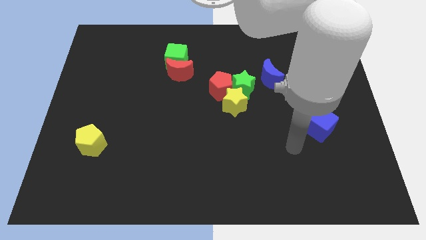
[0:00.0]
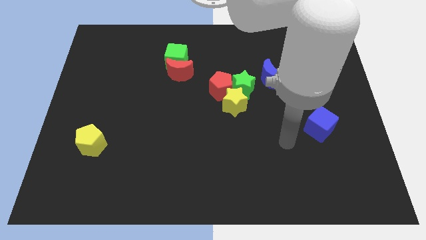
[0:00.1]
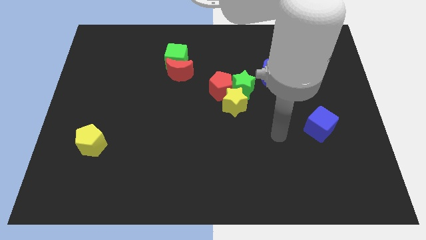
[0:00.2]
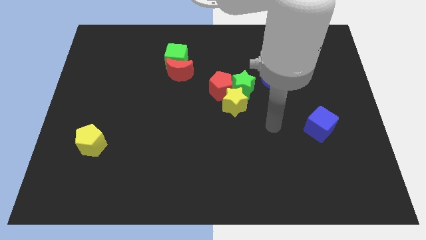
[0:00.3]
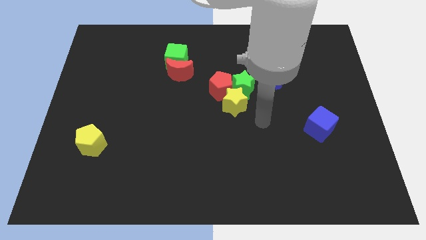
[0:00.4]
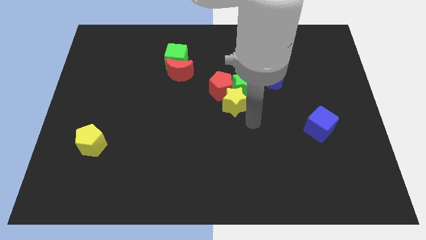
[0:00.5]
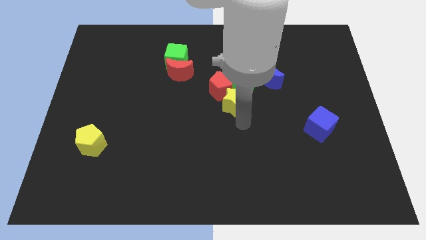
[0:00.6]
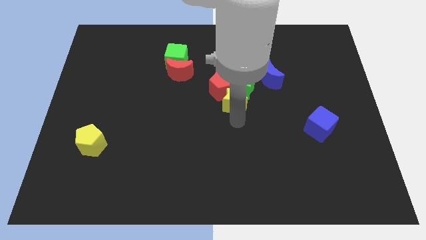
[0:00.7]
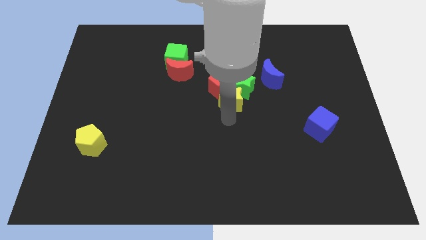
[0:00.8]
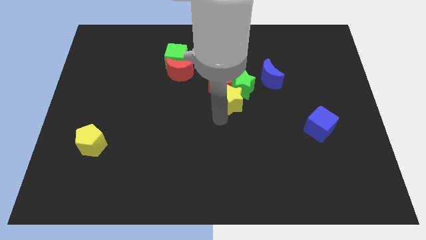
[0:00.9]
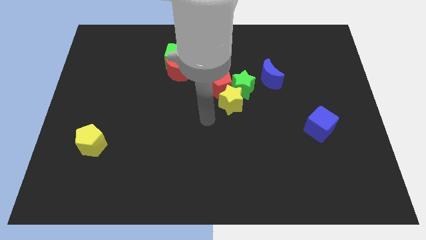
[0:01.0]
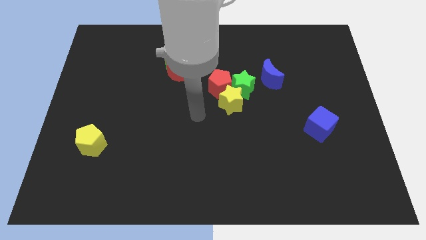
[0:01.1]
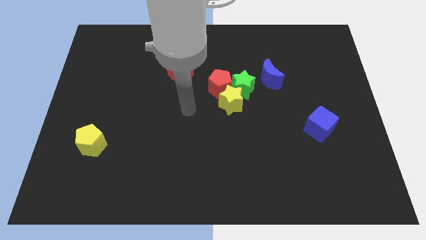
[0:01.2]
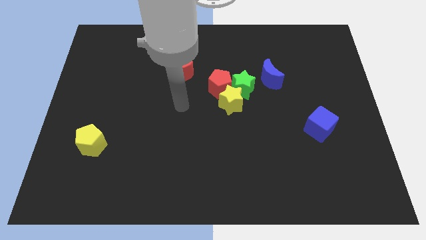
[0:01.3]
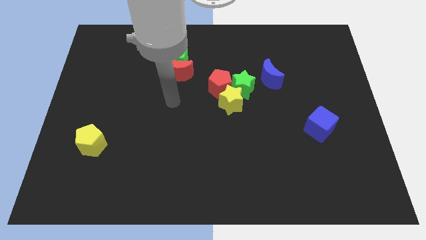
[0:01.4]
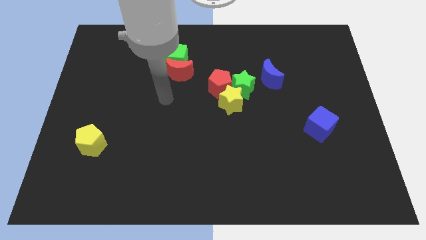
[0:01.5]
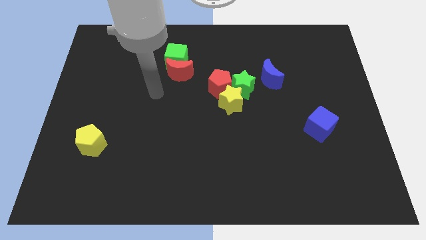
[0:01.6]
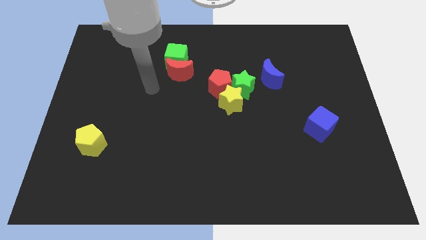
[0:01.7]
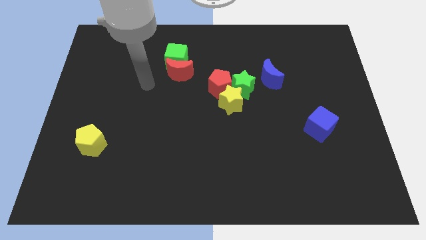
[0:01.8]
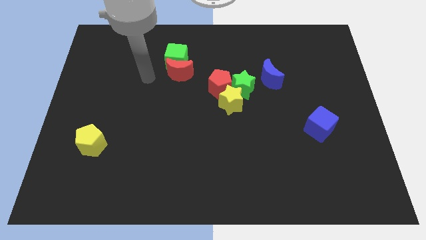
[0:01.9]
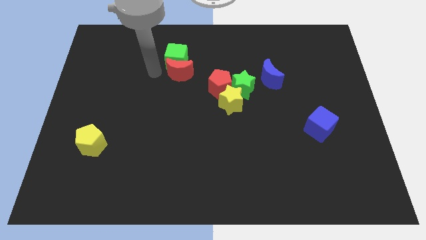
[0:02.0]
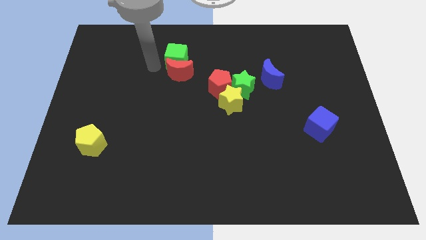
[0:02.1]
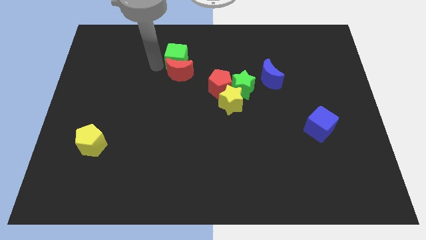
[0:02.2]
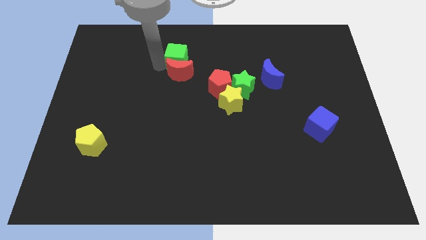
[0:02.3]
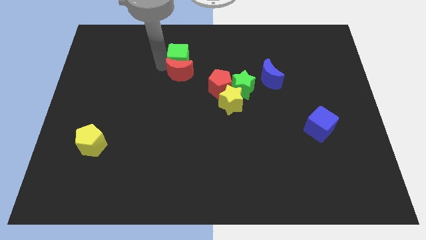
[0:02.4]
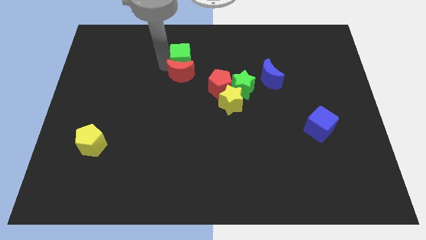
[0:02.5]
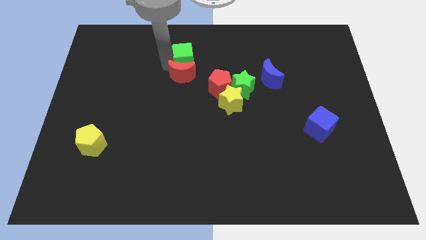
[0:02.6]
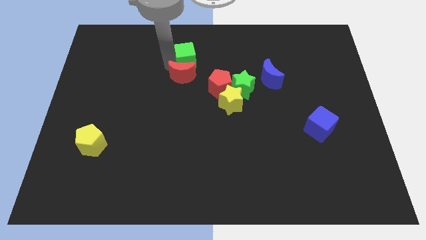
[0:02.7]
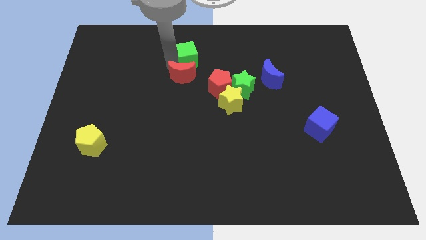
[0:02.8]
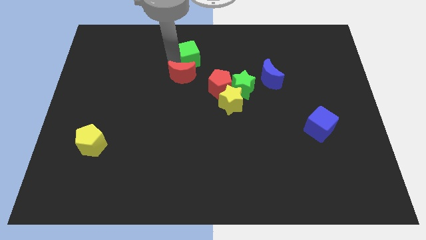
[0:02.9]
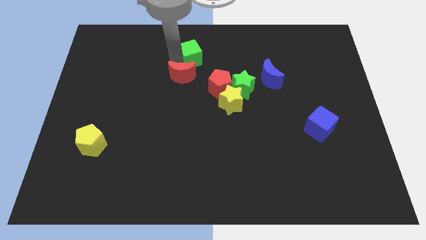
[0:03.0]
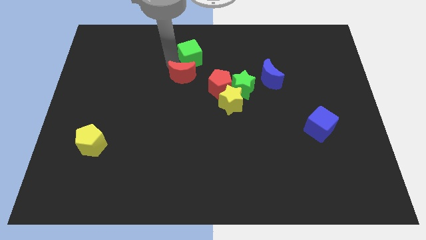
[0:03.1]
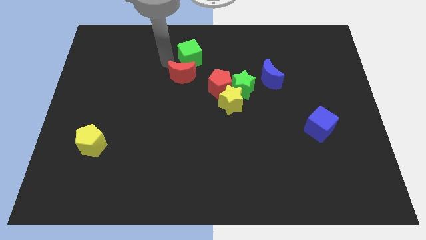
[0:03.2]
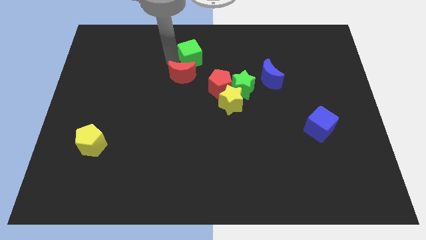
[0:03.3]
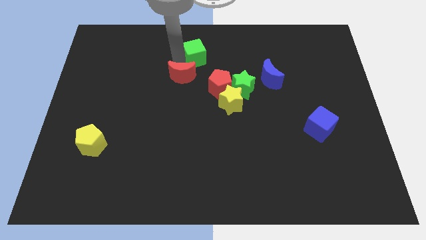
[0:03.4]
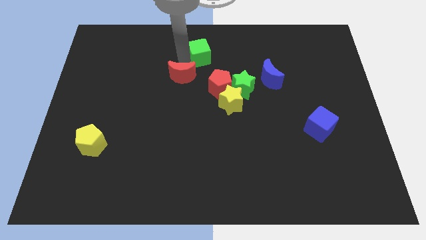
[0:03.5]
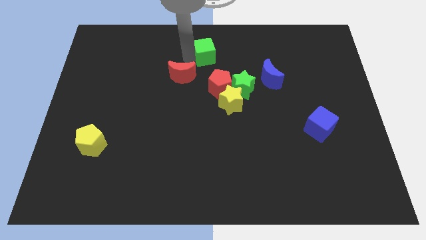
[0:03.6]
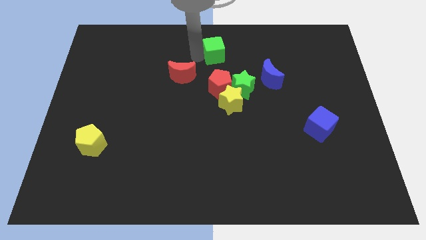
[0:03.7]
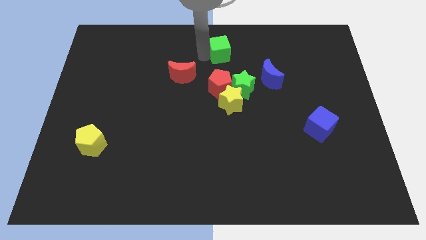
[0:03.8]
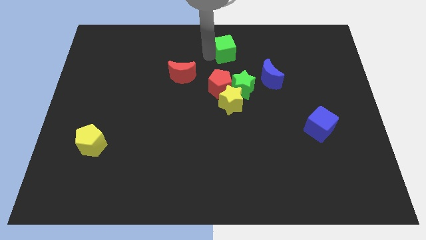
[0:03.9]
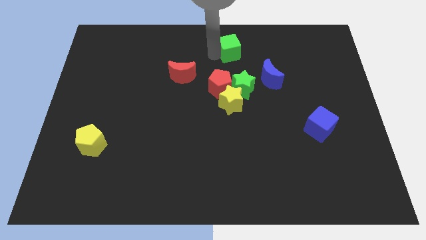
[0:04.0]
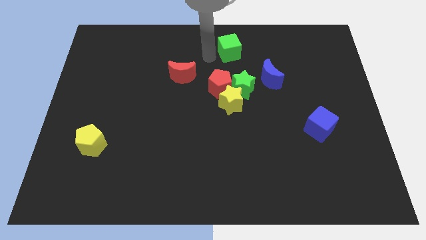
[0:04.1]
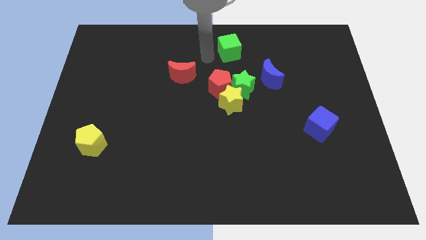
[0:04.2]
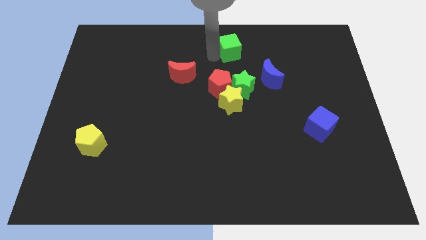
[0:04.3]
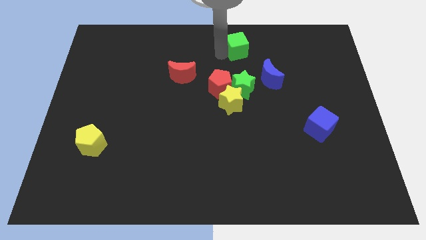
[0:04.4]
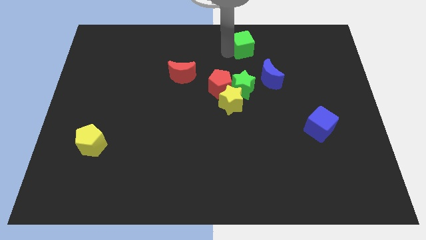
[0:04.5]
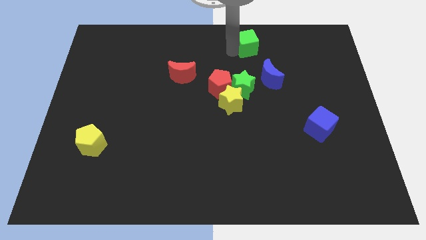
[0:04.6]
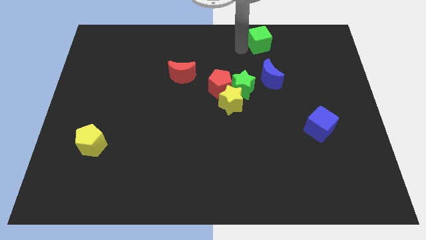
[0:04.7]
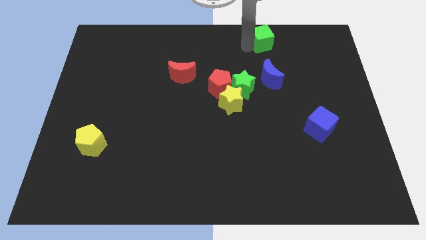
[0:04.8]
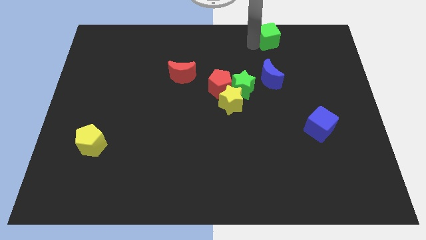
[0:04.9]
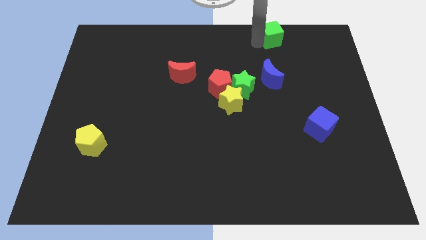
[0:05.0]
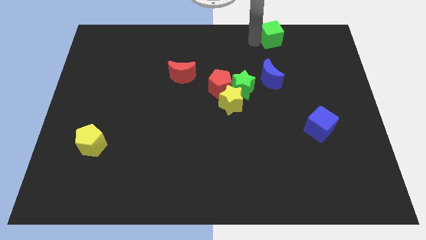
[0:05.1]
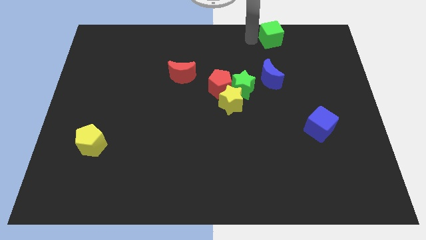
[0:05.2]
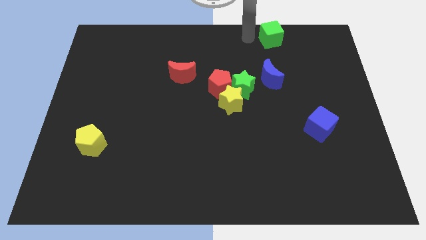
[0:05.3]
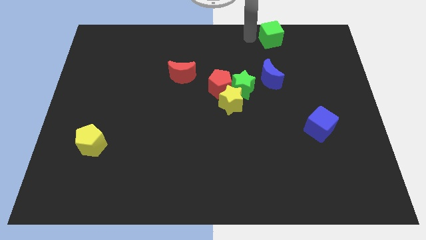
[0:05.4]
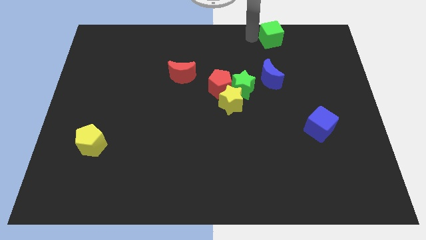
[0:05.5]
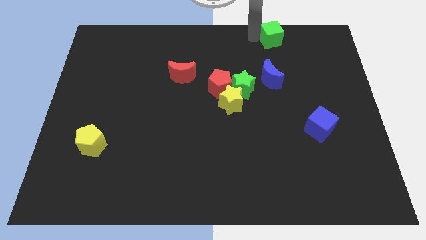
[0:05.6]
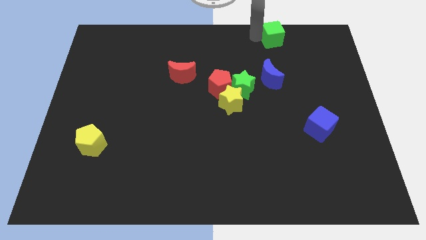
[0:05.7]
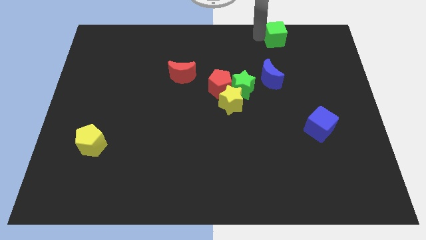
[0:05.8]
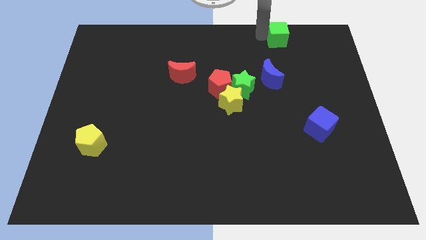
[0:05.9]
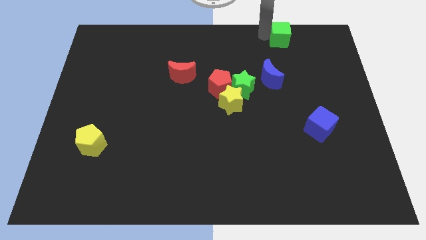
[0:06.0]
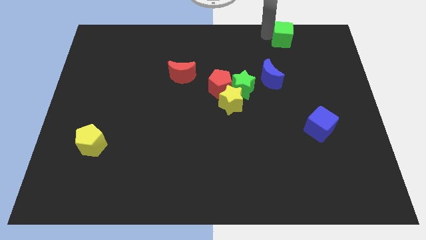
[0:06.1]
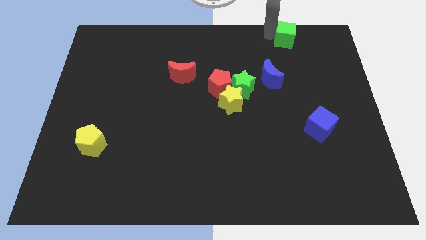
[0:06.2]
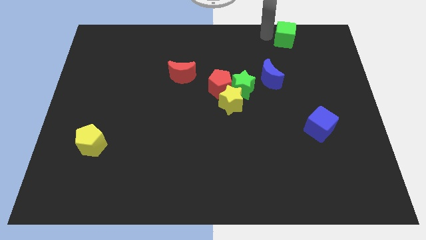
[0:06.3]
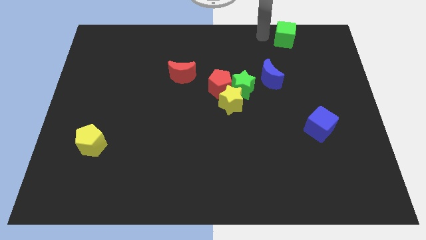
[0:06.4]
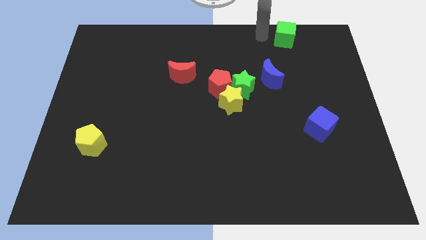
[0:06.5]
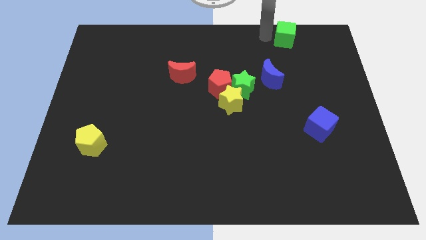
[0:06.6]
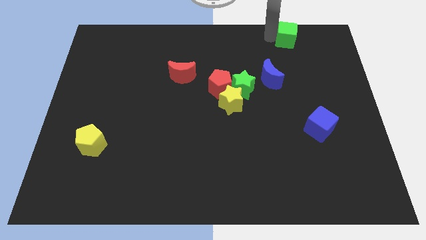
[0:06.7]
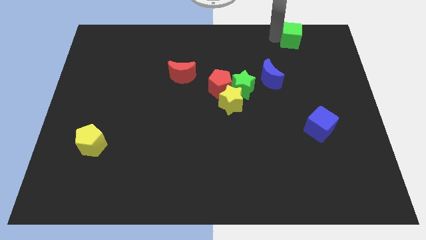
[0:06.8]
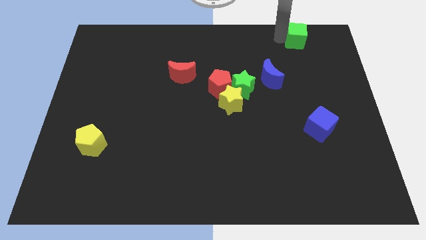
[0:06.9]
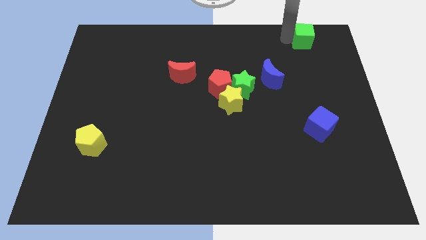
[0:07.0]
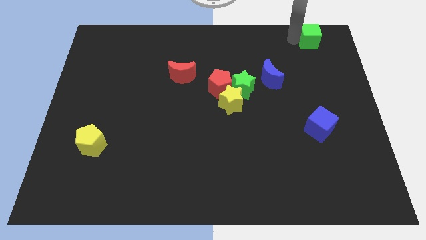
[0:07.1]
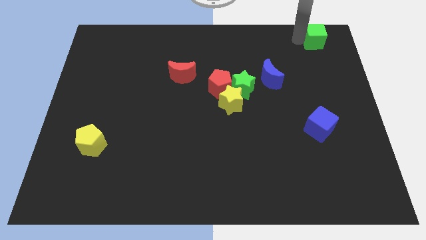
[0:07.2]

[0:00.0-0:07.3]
slide the green cube to the top right of the board
